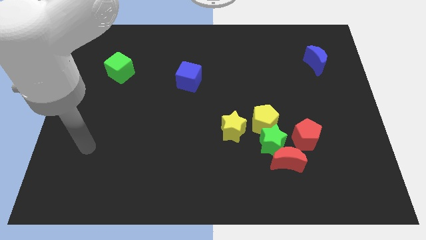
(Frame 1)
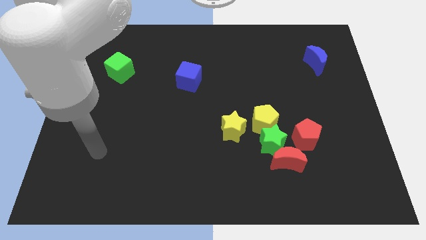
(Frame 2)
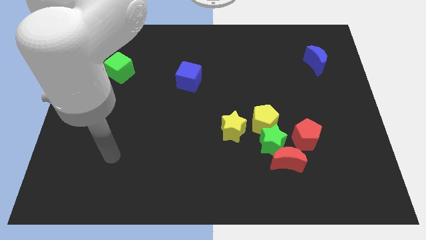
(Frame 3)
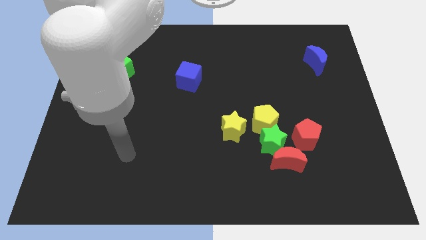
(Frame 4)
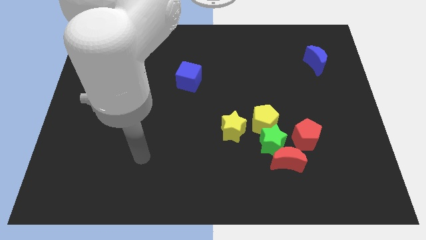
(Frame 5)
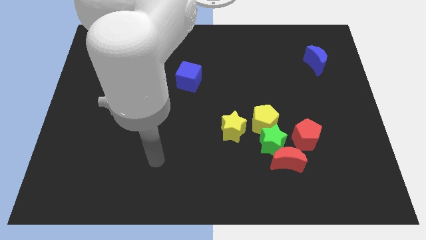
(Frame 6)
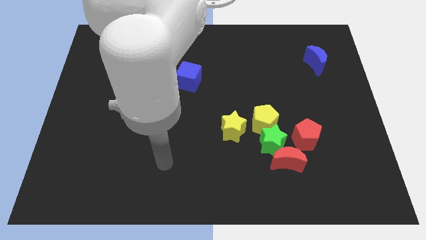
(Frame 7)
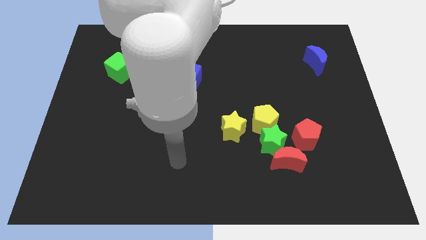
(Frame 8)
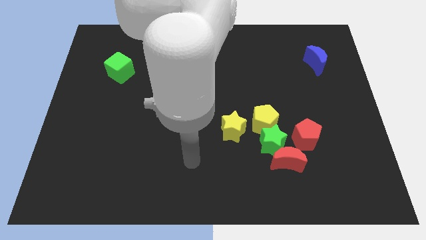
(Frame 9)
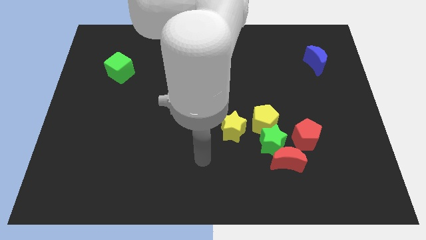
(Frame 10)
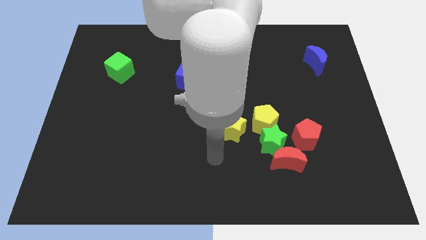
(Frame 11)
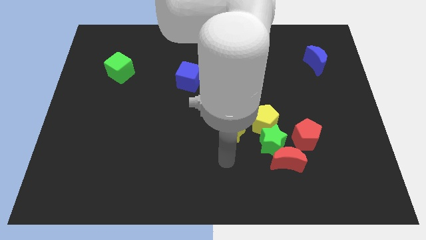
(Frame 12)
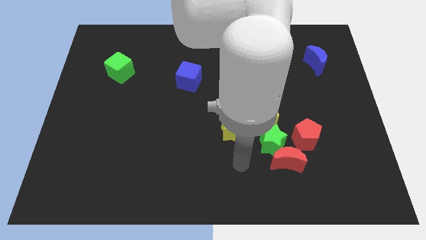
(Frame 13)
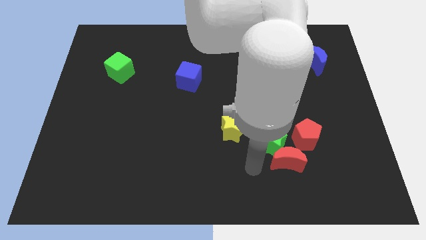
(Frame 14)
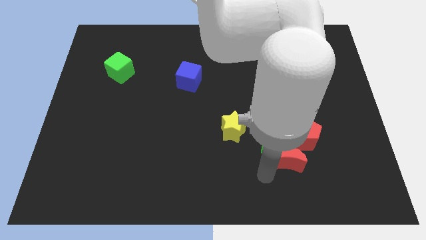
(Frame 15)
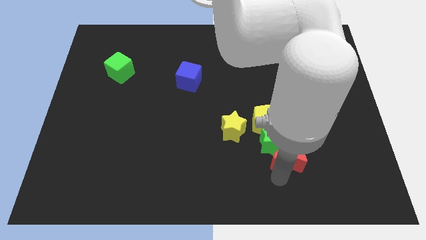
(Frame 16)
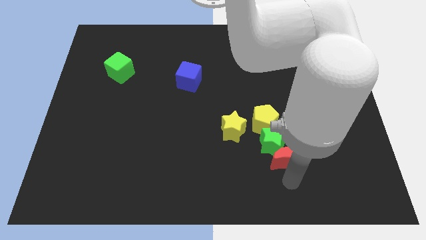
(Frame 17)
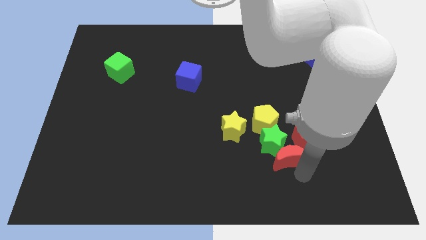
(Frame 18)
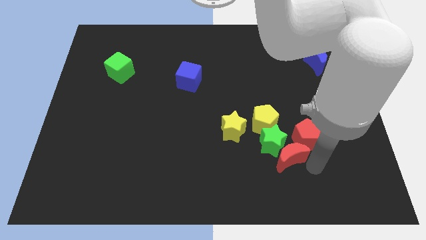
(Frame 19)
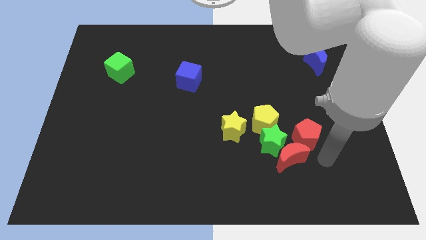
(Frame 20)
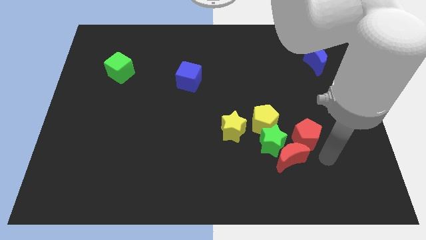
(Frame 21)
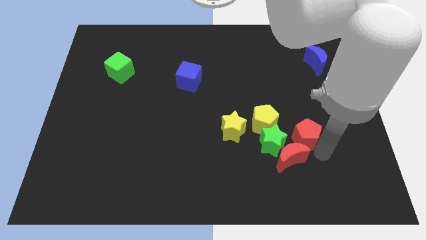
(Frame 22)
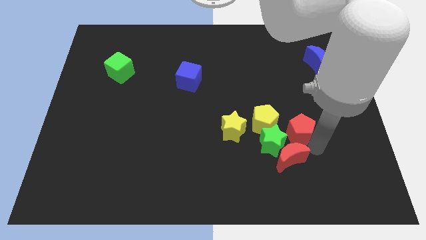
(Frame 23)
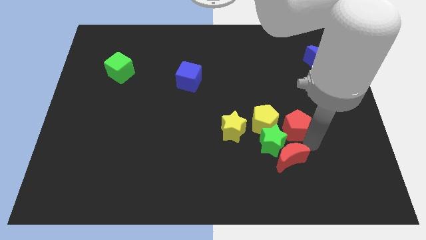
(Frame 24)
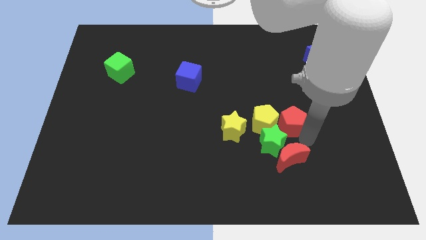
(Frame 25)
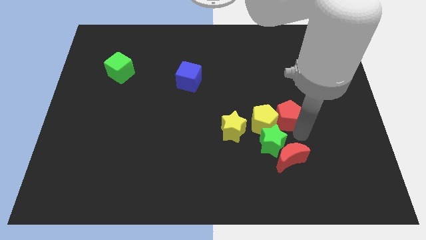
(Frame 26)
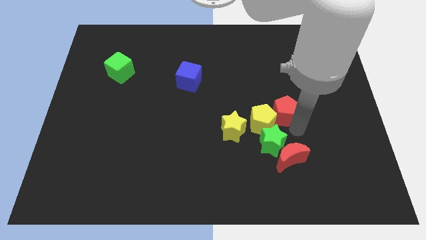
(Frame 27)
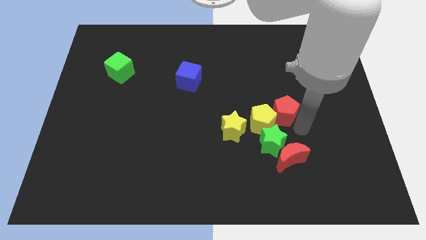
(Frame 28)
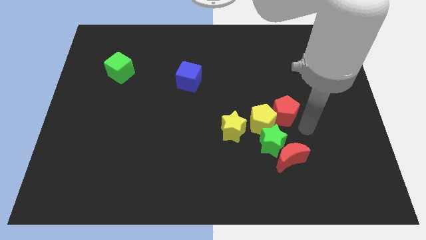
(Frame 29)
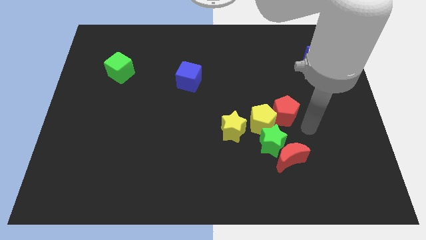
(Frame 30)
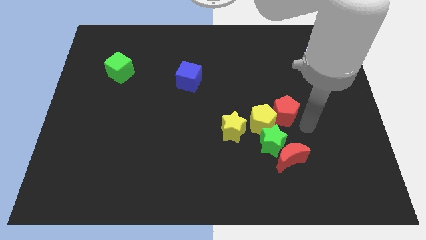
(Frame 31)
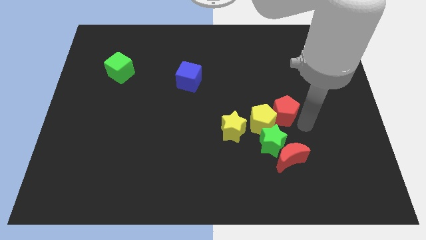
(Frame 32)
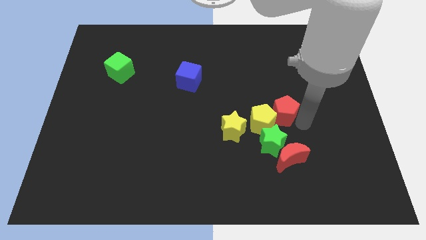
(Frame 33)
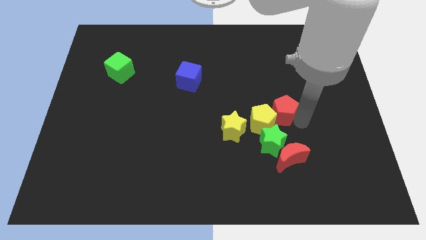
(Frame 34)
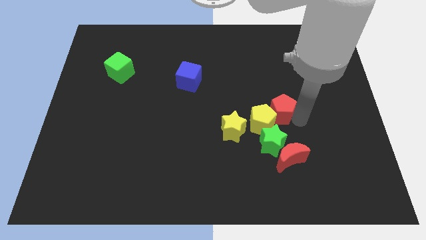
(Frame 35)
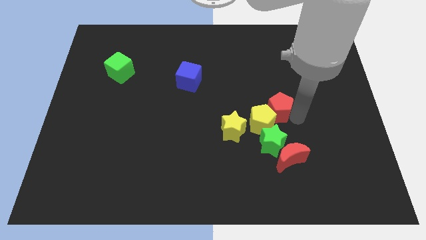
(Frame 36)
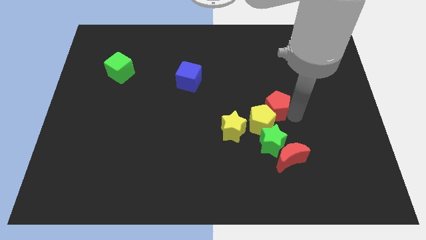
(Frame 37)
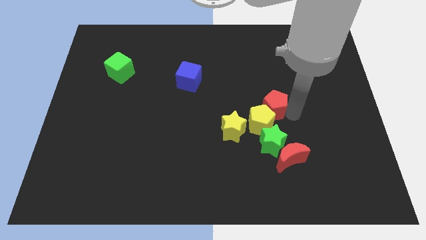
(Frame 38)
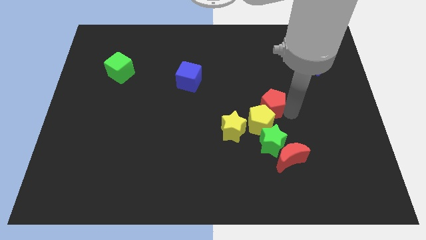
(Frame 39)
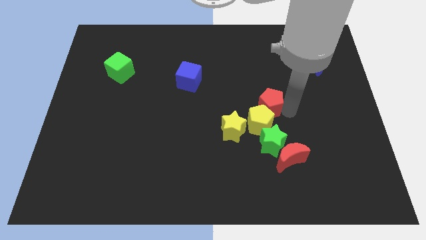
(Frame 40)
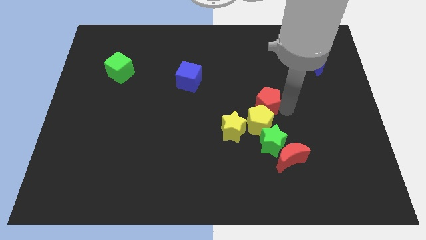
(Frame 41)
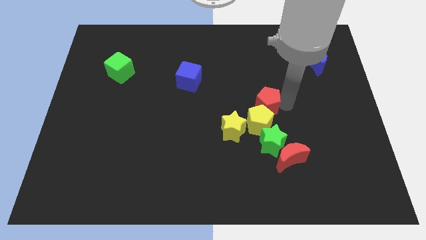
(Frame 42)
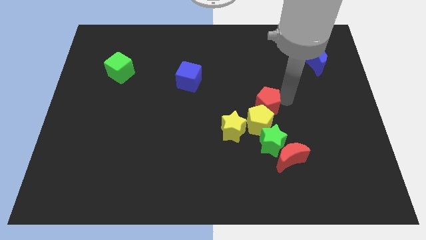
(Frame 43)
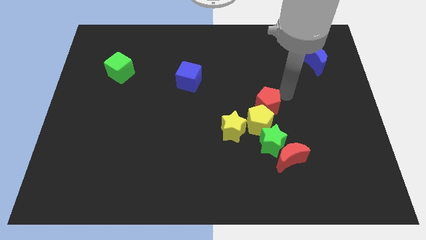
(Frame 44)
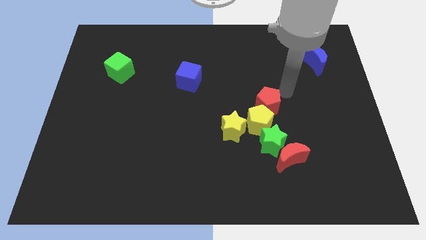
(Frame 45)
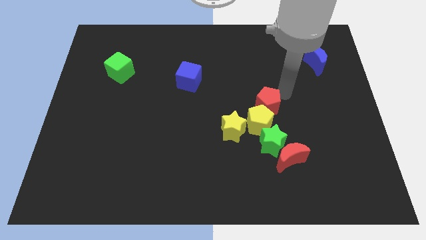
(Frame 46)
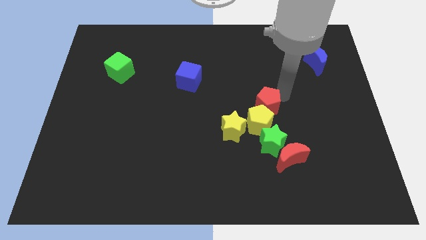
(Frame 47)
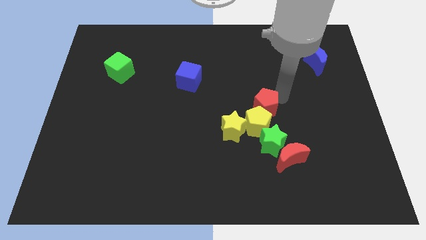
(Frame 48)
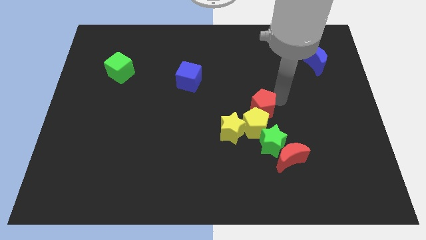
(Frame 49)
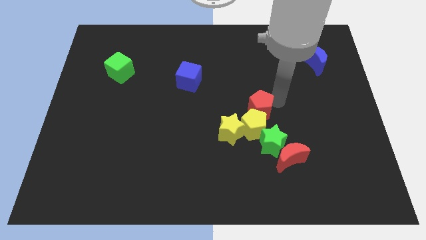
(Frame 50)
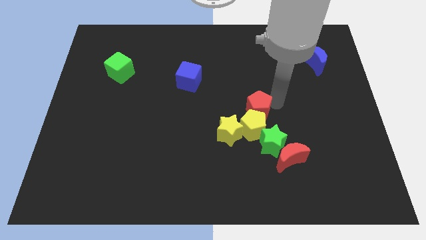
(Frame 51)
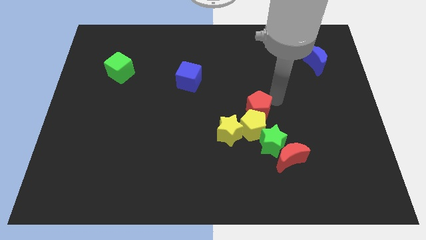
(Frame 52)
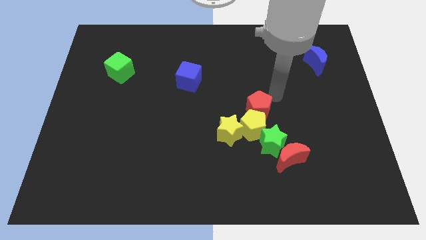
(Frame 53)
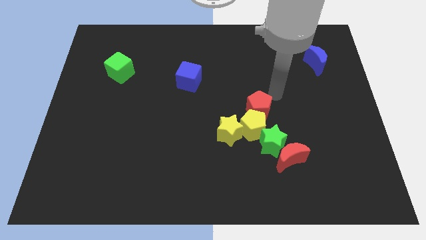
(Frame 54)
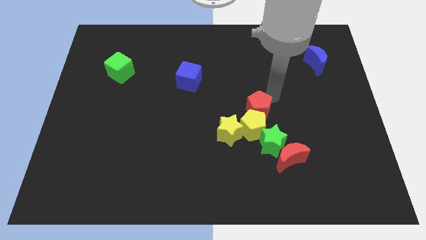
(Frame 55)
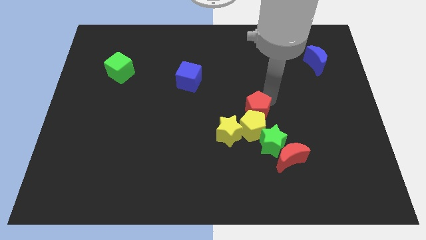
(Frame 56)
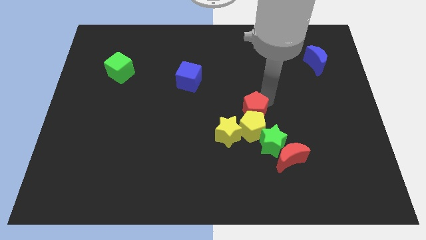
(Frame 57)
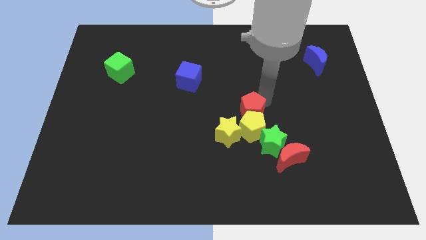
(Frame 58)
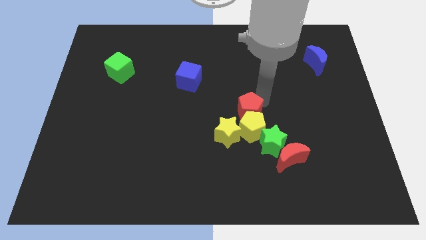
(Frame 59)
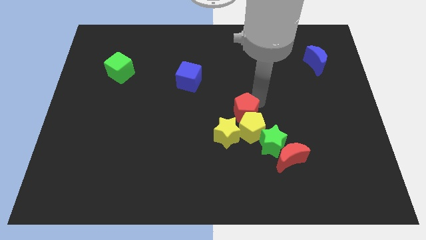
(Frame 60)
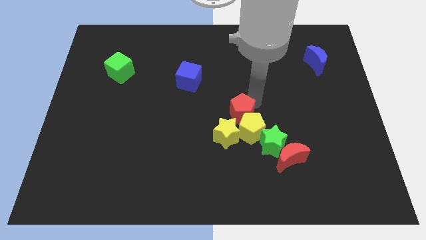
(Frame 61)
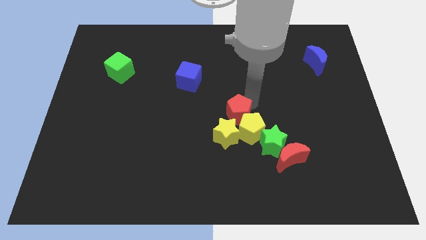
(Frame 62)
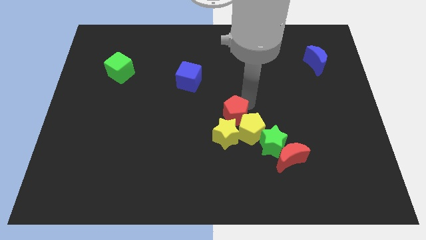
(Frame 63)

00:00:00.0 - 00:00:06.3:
slide the red pentagon next to the yellow star

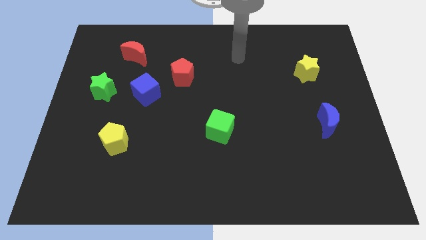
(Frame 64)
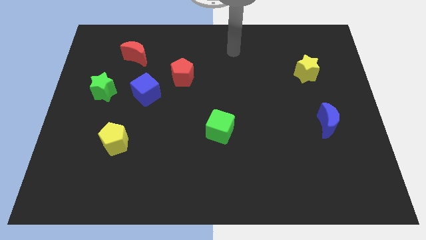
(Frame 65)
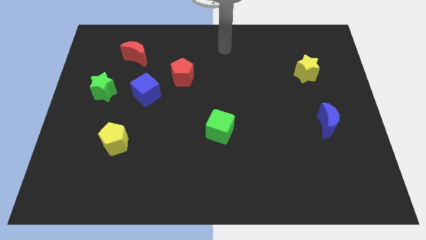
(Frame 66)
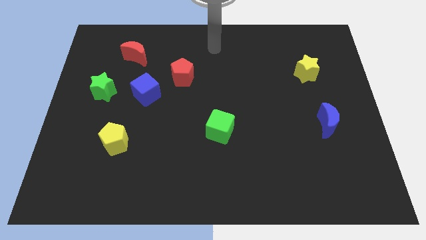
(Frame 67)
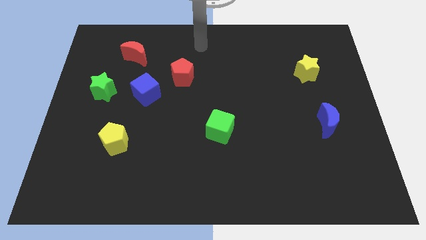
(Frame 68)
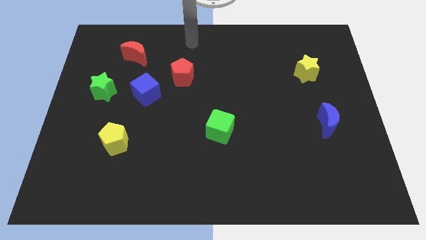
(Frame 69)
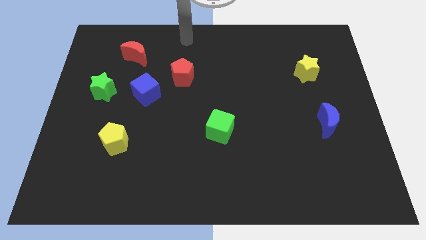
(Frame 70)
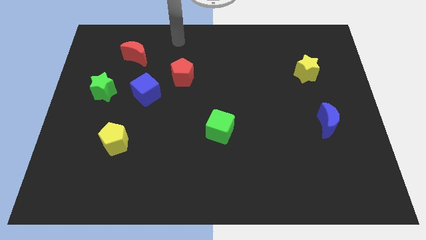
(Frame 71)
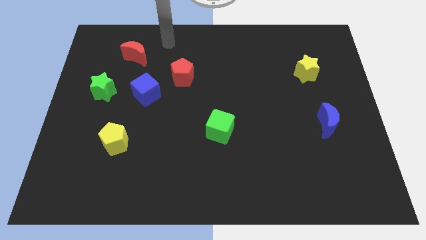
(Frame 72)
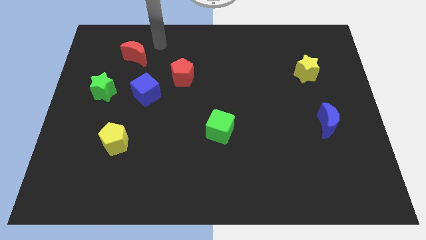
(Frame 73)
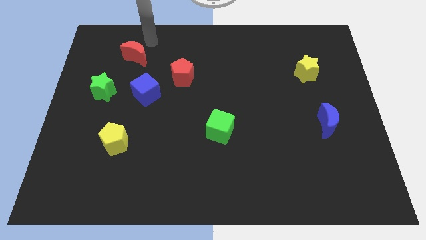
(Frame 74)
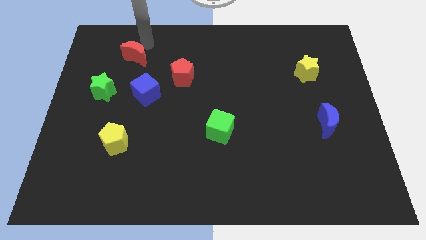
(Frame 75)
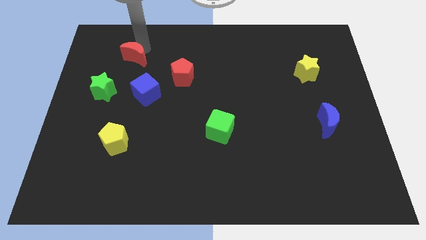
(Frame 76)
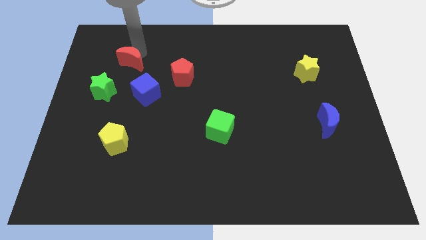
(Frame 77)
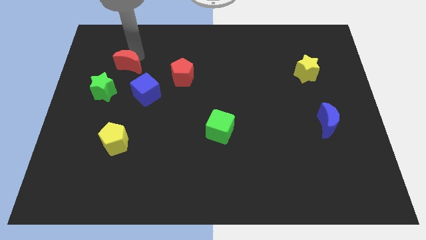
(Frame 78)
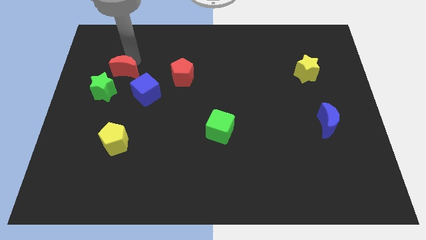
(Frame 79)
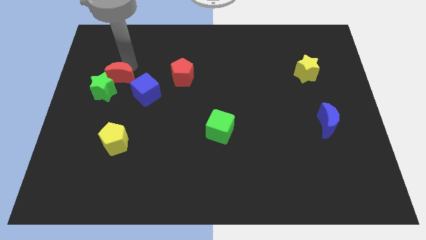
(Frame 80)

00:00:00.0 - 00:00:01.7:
put the red moon to the green star
